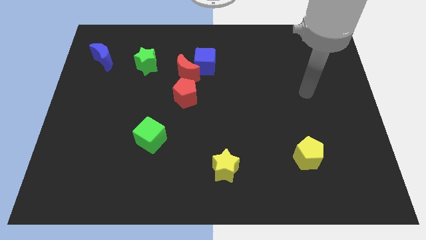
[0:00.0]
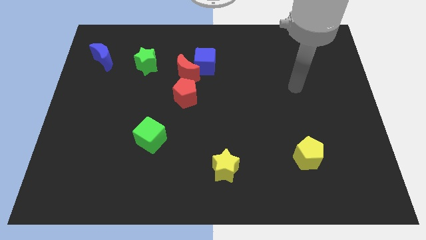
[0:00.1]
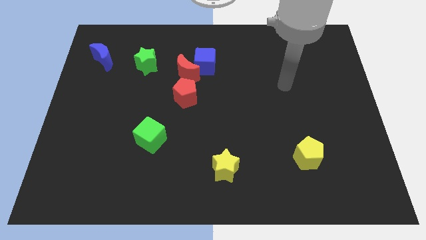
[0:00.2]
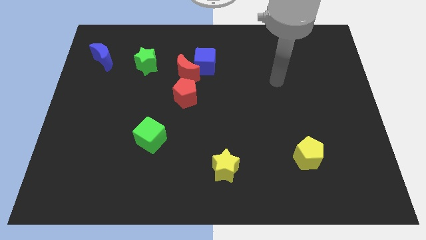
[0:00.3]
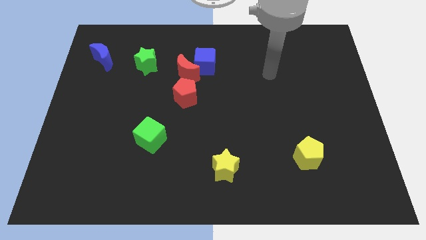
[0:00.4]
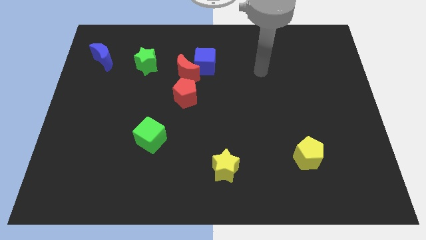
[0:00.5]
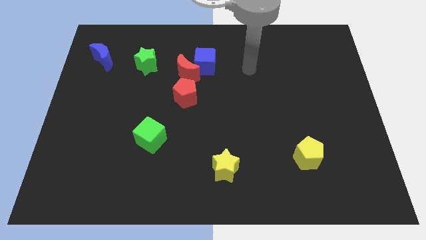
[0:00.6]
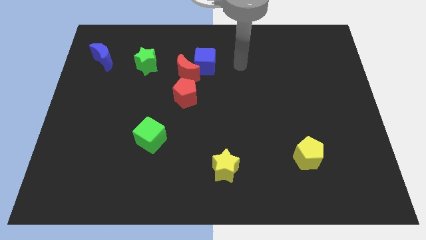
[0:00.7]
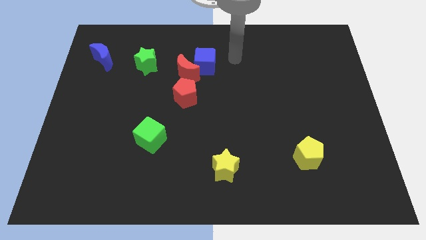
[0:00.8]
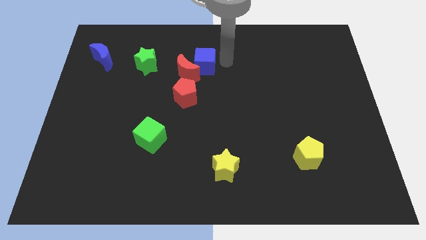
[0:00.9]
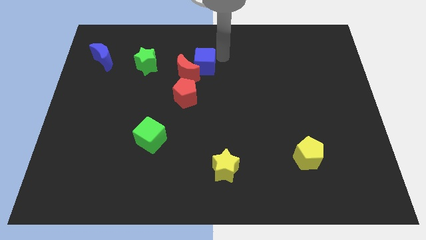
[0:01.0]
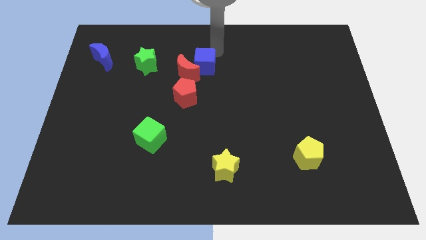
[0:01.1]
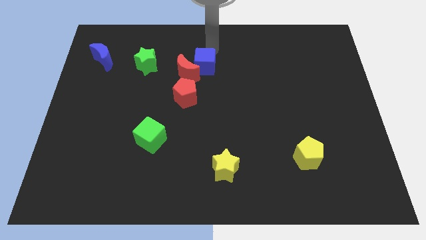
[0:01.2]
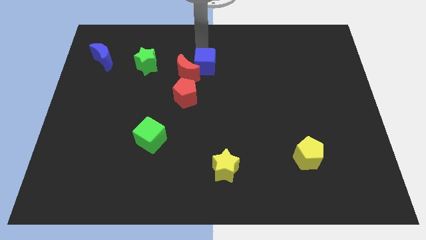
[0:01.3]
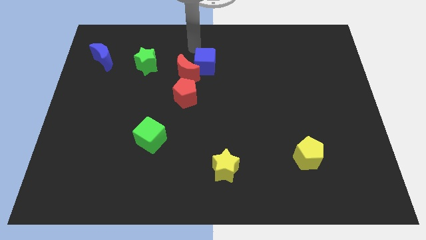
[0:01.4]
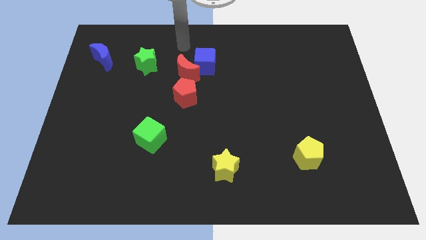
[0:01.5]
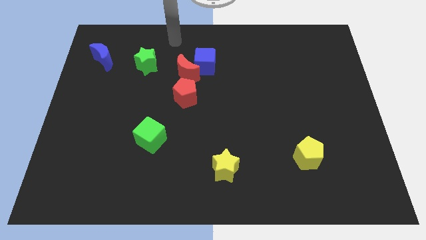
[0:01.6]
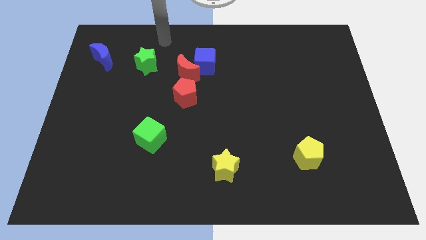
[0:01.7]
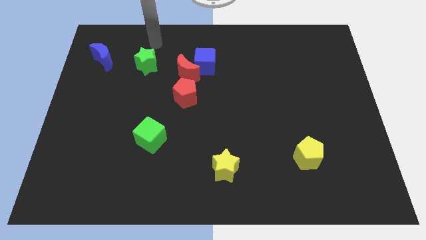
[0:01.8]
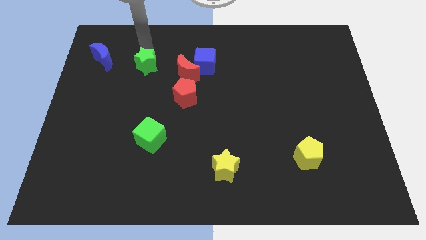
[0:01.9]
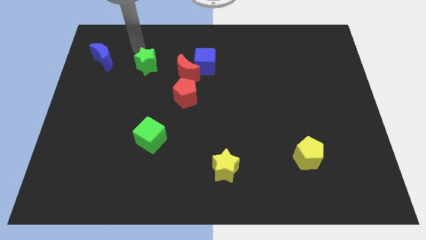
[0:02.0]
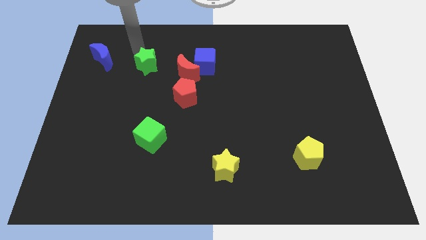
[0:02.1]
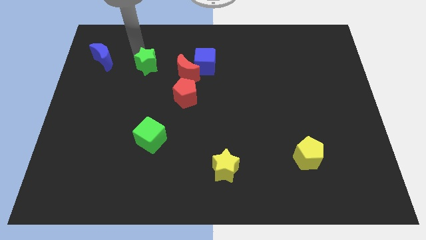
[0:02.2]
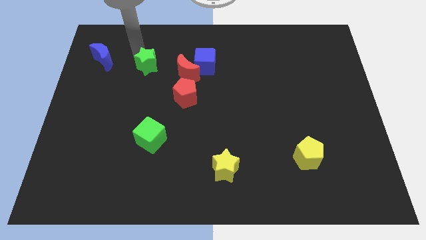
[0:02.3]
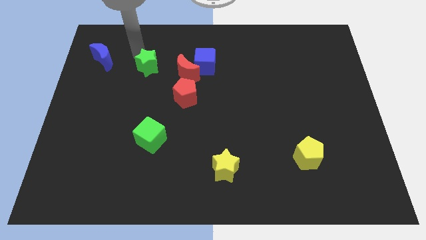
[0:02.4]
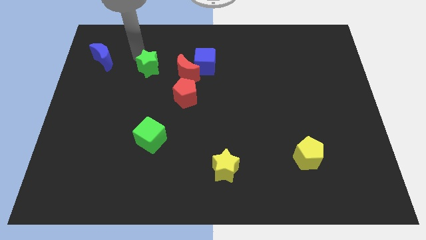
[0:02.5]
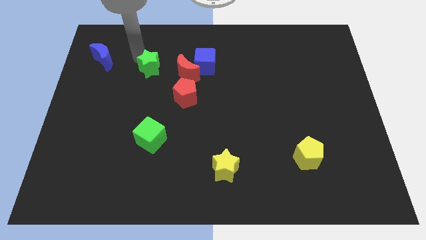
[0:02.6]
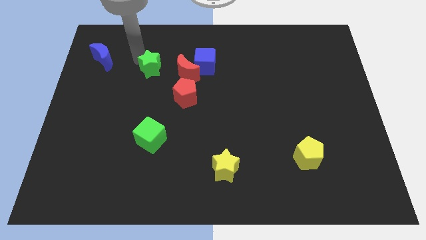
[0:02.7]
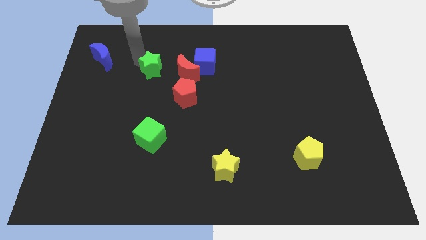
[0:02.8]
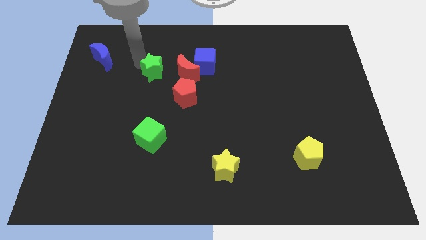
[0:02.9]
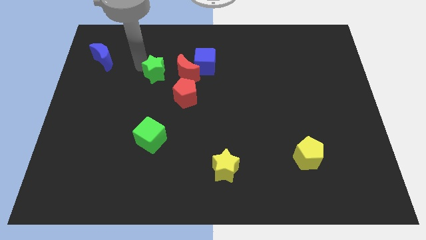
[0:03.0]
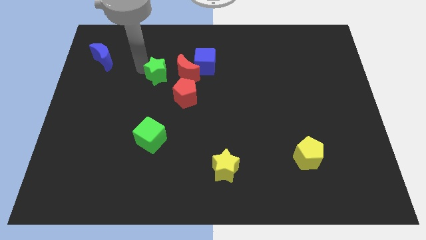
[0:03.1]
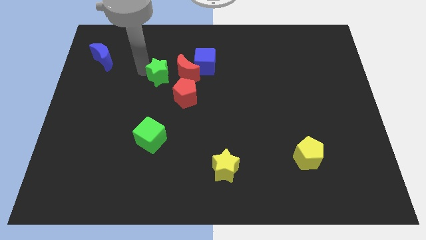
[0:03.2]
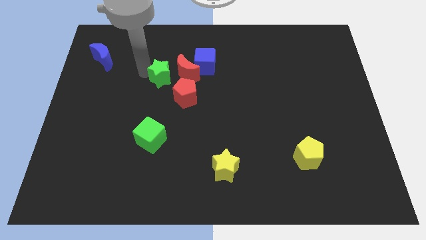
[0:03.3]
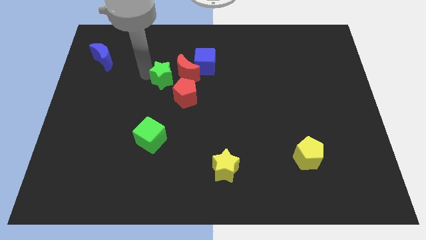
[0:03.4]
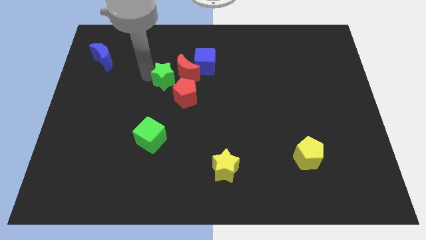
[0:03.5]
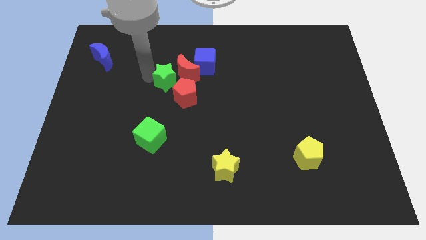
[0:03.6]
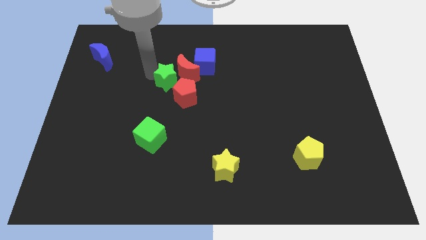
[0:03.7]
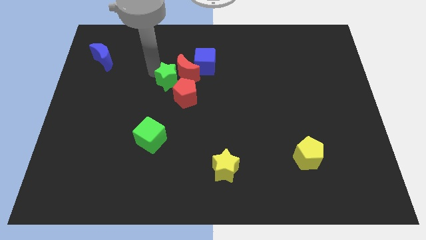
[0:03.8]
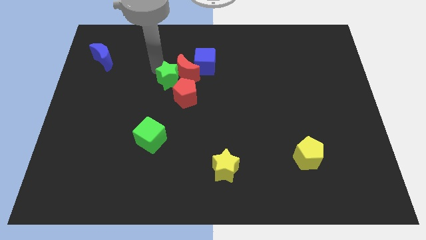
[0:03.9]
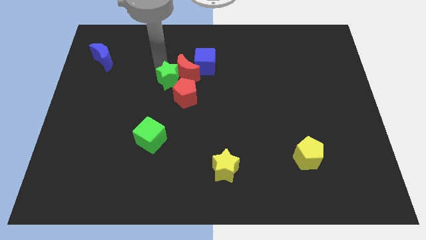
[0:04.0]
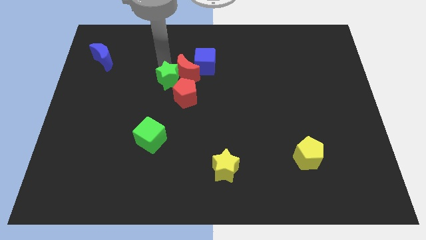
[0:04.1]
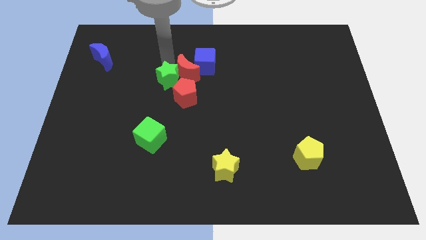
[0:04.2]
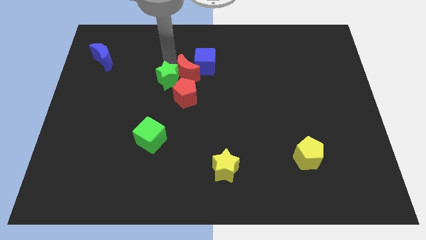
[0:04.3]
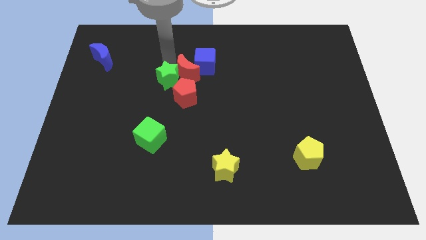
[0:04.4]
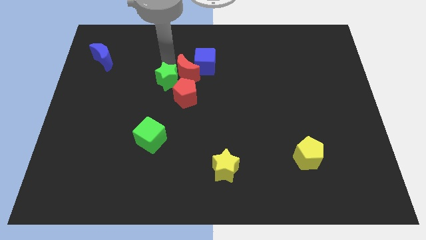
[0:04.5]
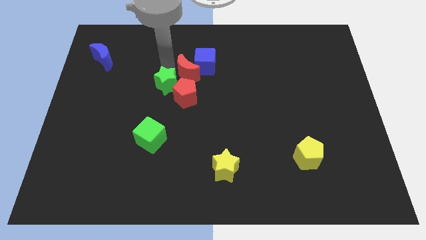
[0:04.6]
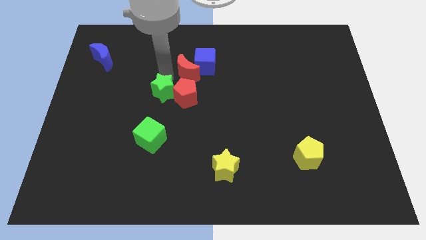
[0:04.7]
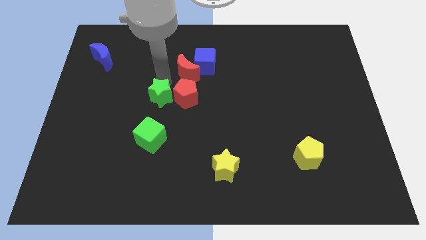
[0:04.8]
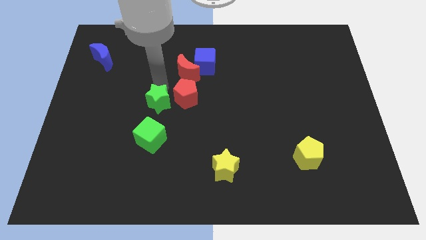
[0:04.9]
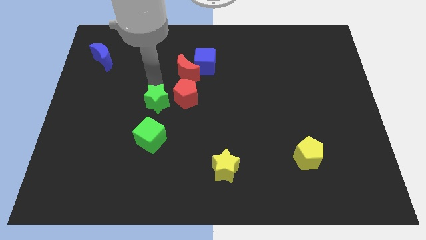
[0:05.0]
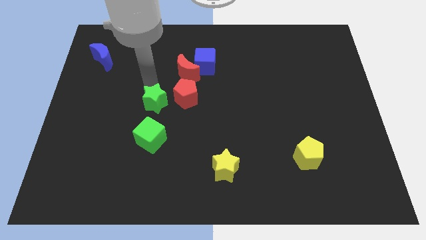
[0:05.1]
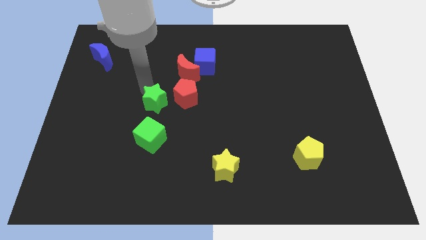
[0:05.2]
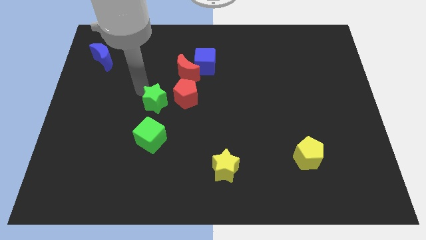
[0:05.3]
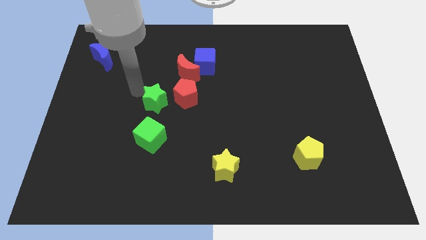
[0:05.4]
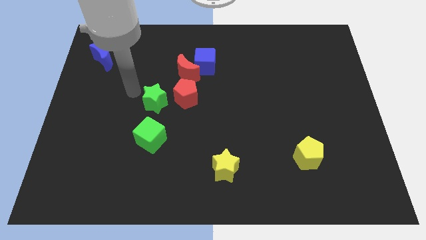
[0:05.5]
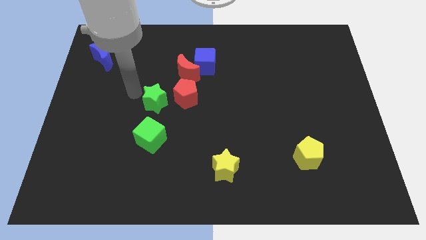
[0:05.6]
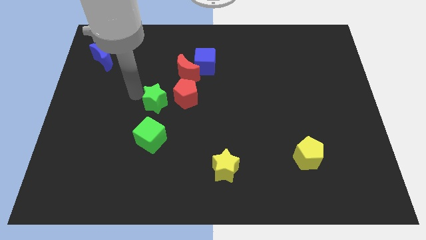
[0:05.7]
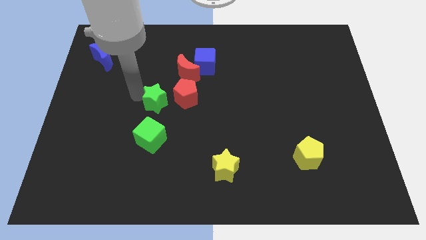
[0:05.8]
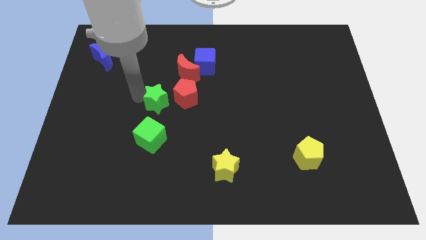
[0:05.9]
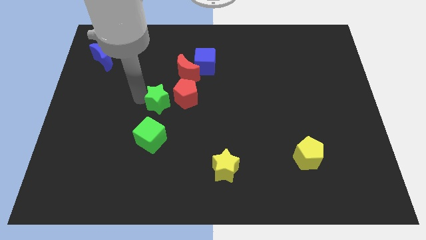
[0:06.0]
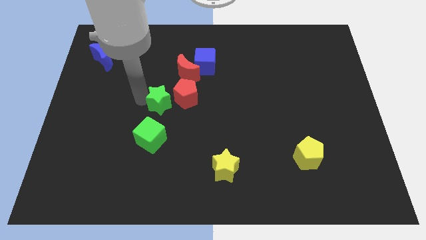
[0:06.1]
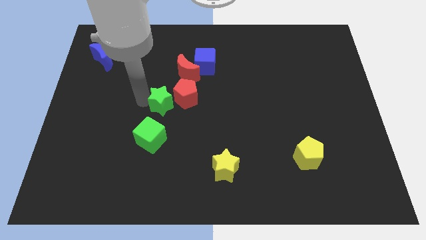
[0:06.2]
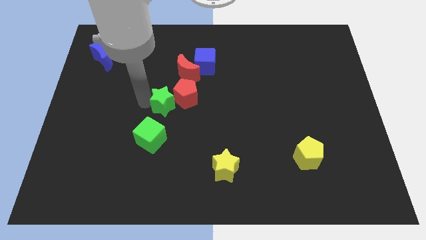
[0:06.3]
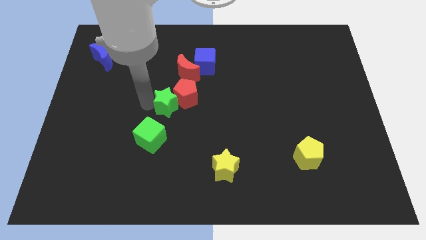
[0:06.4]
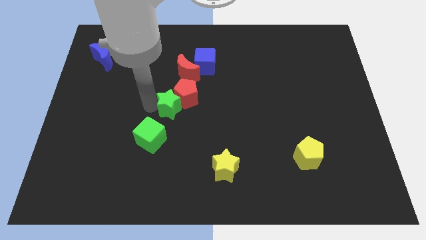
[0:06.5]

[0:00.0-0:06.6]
put the green star below the red pentagon

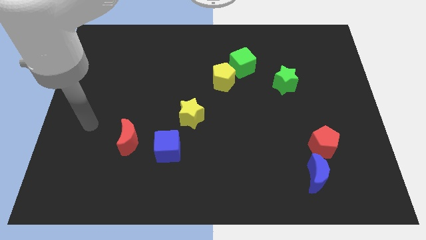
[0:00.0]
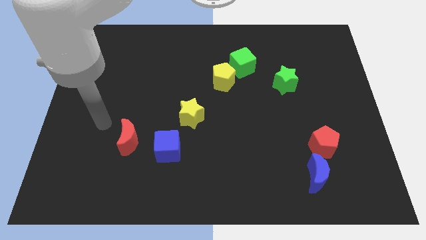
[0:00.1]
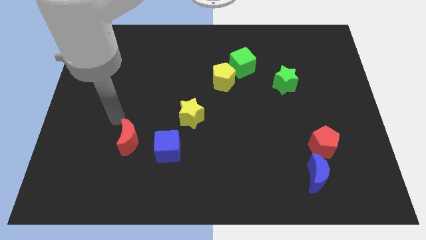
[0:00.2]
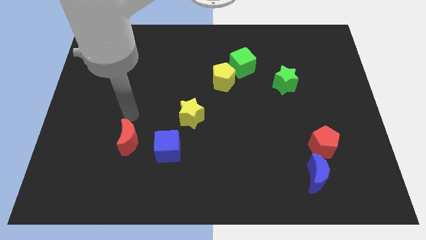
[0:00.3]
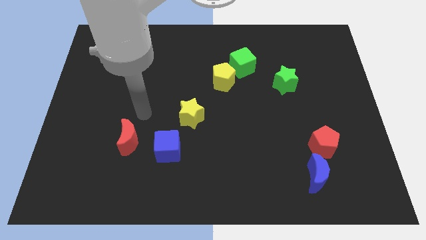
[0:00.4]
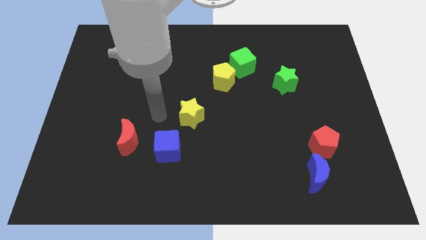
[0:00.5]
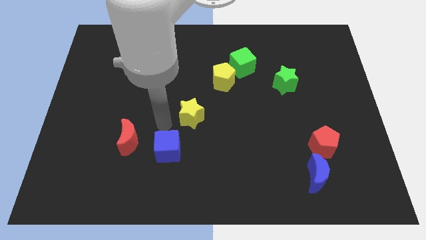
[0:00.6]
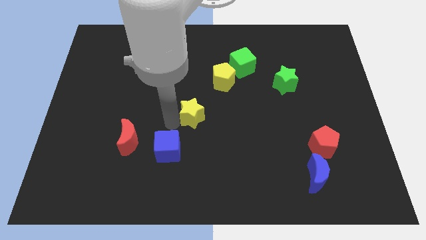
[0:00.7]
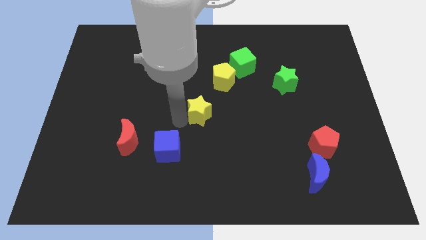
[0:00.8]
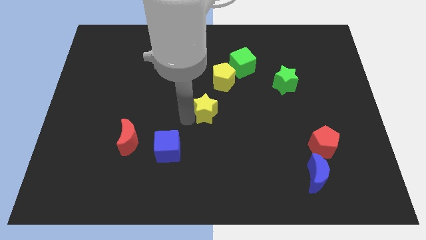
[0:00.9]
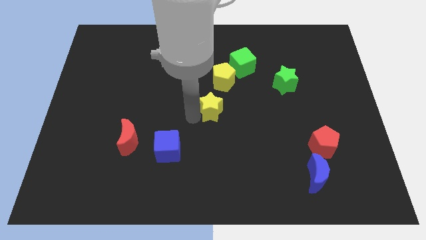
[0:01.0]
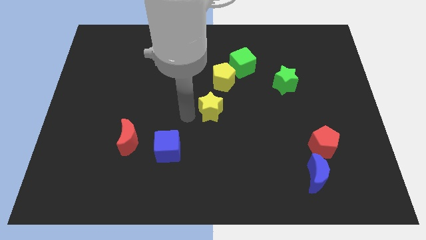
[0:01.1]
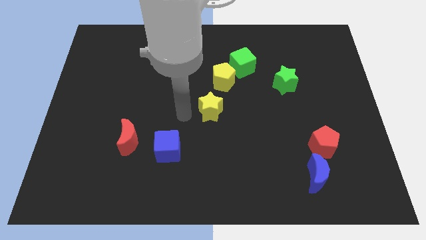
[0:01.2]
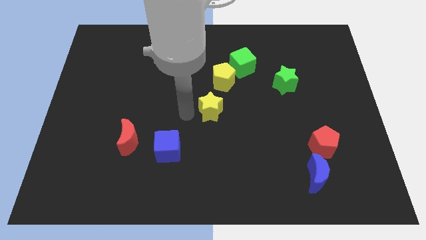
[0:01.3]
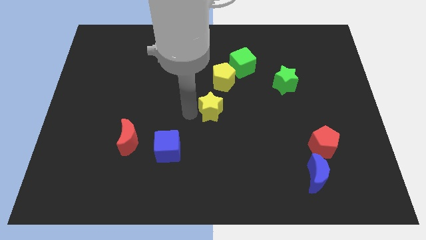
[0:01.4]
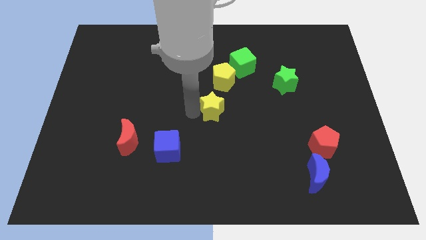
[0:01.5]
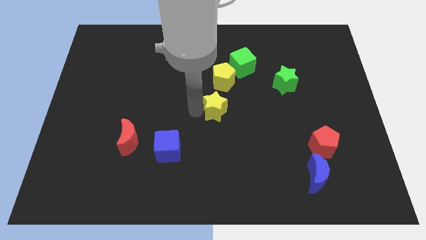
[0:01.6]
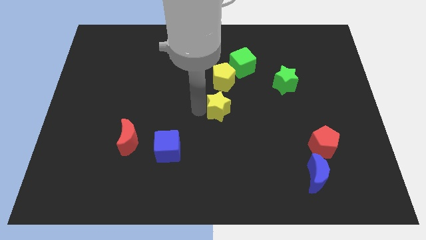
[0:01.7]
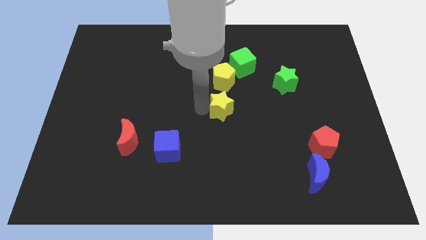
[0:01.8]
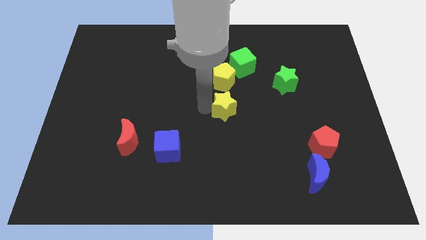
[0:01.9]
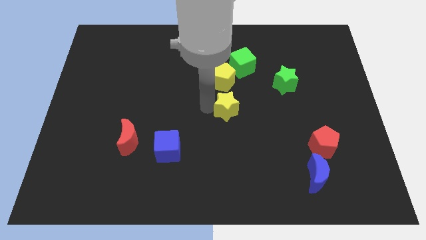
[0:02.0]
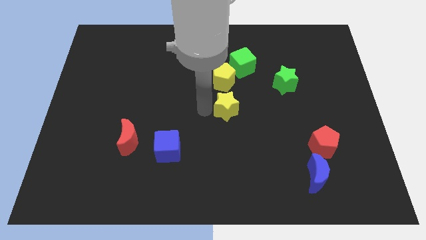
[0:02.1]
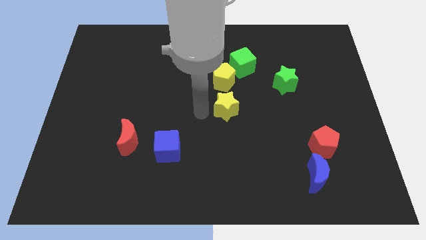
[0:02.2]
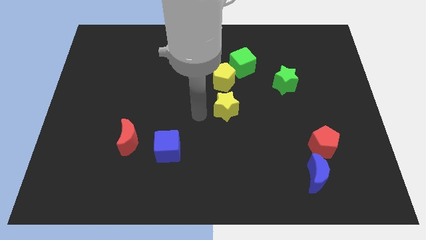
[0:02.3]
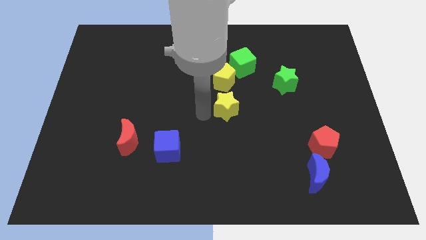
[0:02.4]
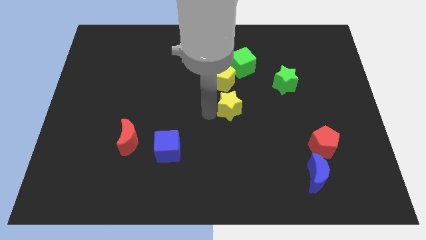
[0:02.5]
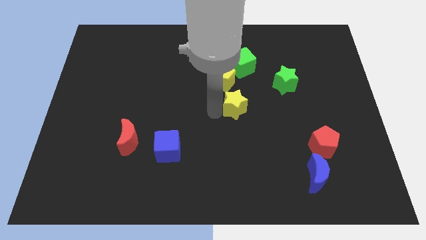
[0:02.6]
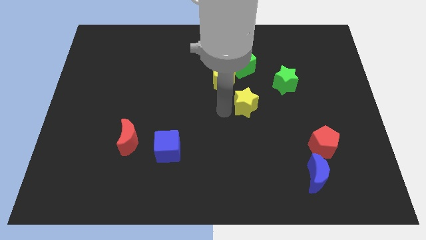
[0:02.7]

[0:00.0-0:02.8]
put the yellow star diagonally down and to the left of the green star
